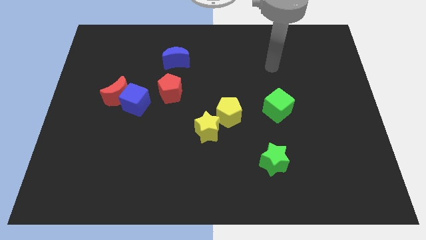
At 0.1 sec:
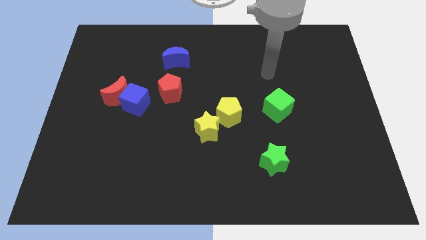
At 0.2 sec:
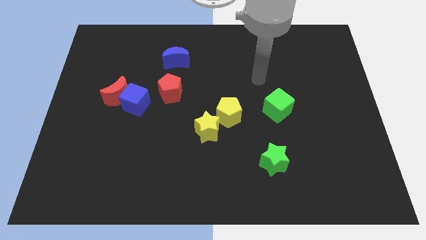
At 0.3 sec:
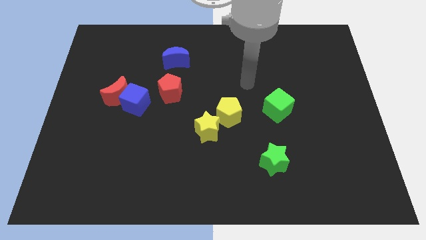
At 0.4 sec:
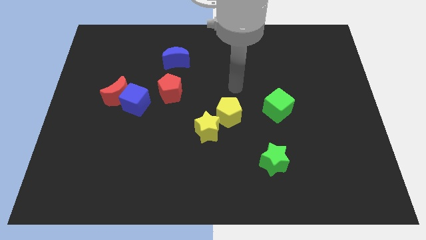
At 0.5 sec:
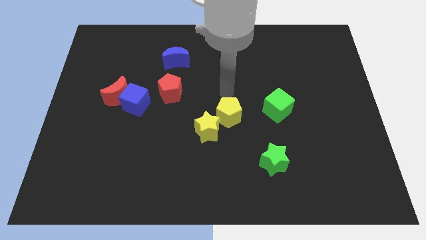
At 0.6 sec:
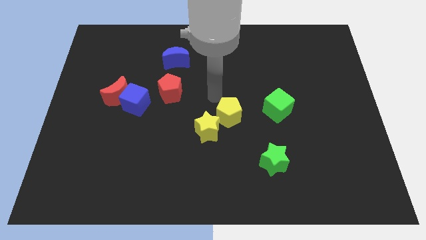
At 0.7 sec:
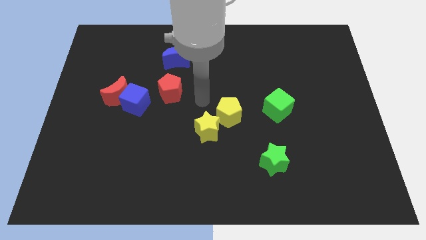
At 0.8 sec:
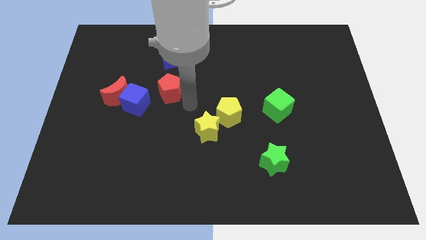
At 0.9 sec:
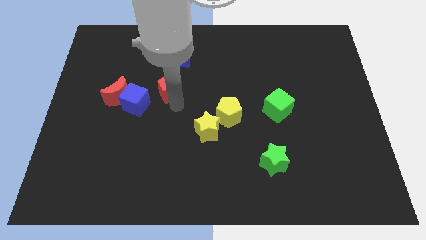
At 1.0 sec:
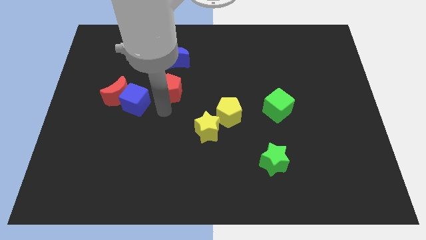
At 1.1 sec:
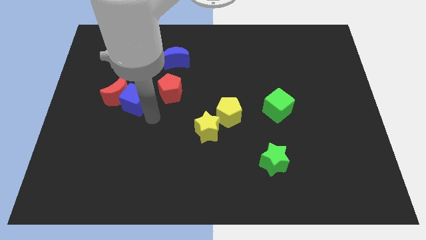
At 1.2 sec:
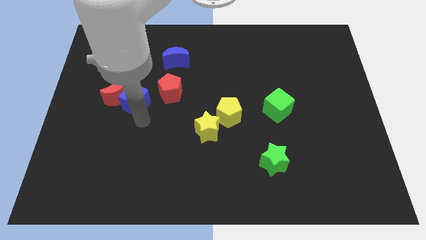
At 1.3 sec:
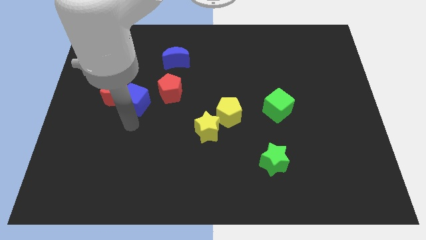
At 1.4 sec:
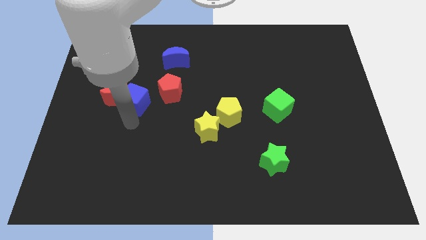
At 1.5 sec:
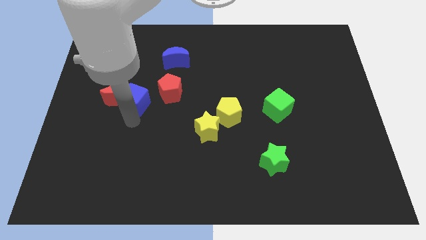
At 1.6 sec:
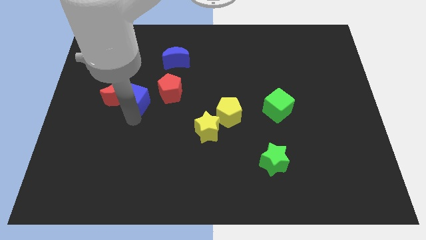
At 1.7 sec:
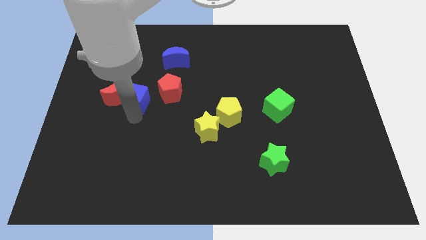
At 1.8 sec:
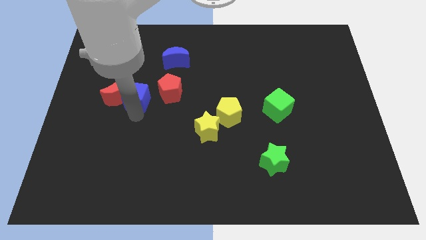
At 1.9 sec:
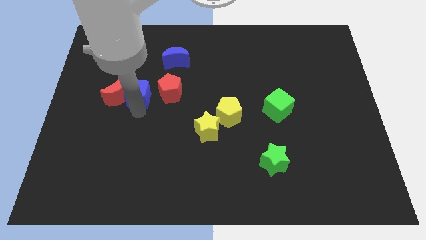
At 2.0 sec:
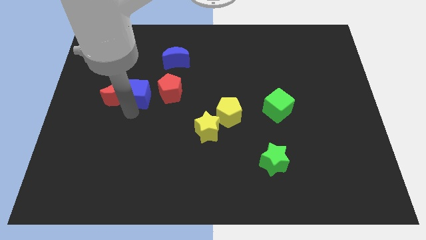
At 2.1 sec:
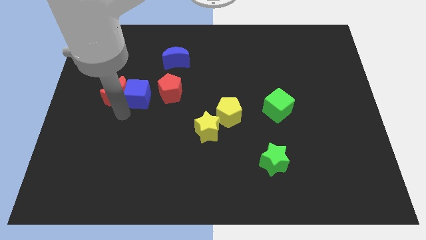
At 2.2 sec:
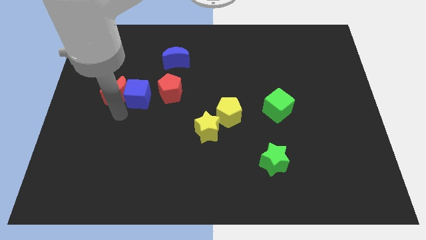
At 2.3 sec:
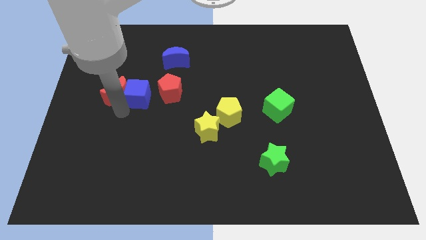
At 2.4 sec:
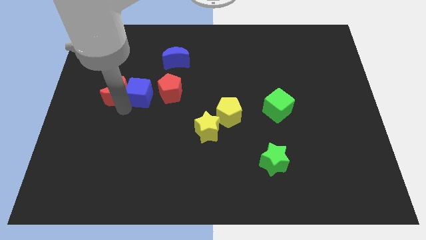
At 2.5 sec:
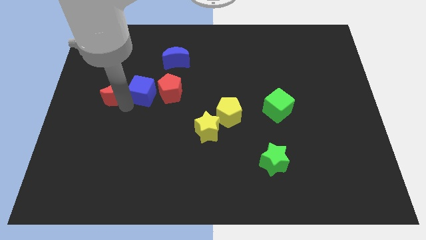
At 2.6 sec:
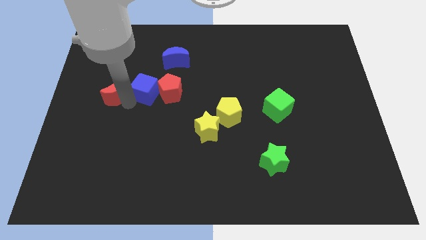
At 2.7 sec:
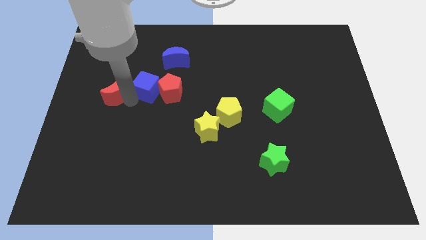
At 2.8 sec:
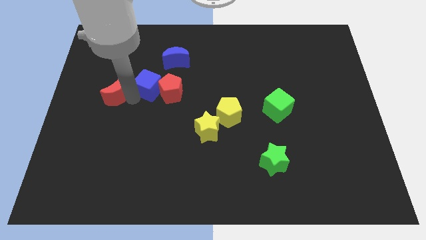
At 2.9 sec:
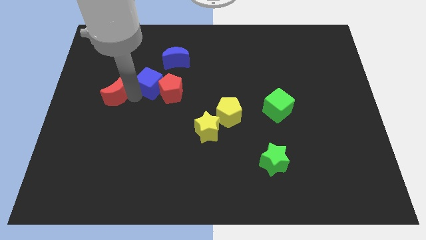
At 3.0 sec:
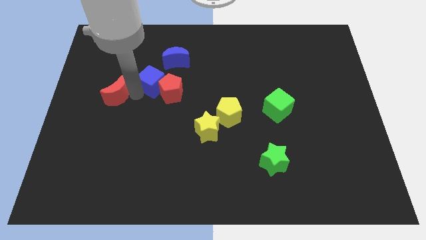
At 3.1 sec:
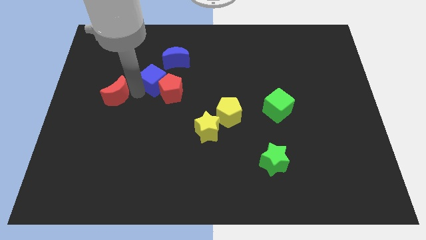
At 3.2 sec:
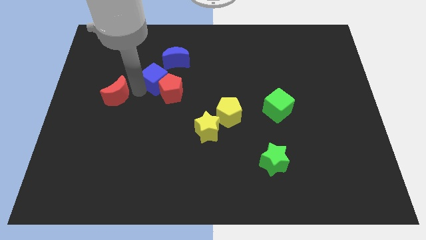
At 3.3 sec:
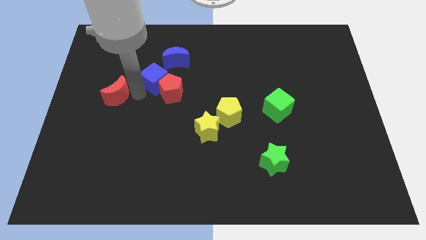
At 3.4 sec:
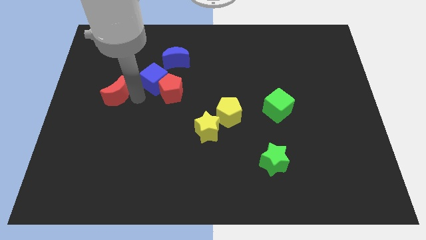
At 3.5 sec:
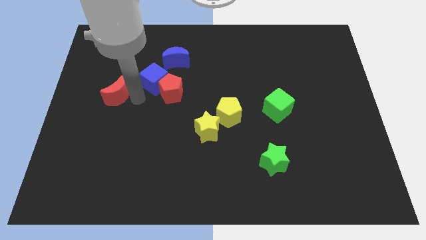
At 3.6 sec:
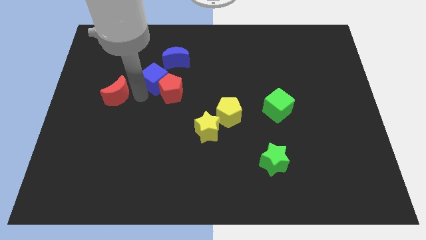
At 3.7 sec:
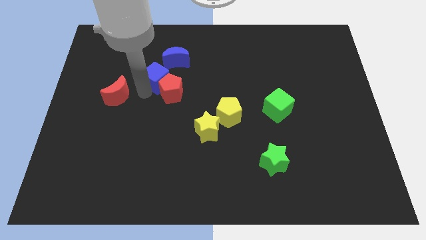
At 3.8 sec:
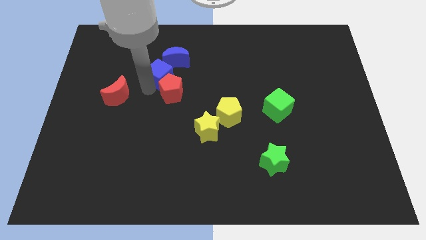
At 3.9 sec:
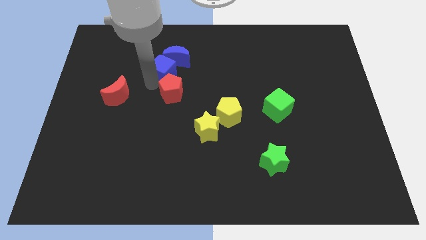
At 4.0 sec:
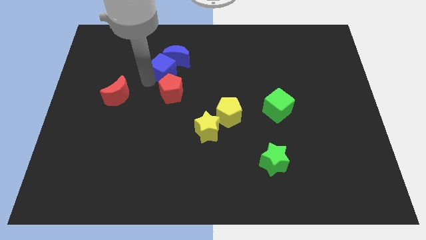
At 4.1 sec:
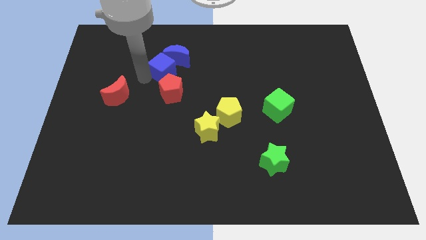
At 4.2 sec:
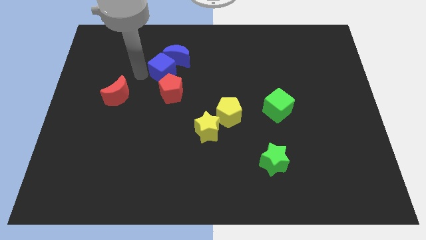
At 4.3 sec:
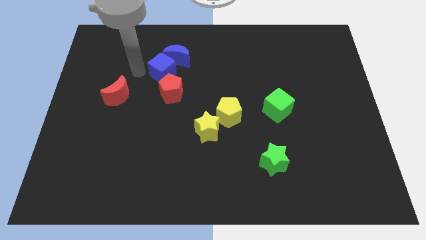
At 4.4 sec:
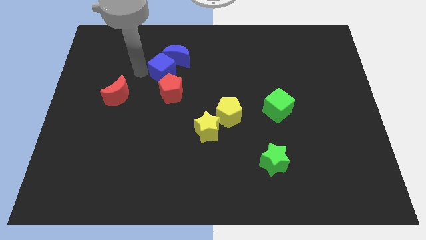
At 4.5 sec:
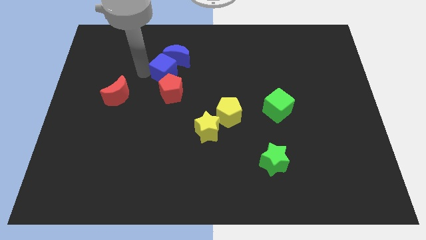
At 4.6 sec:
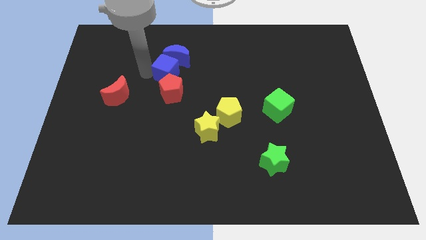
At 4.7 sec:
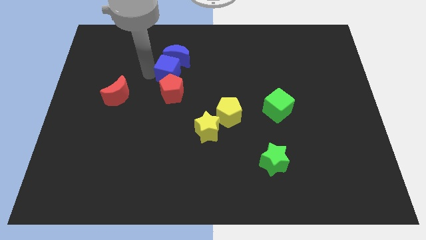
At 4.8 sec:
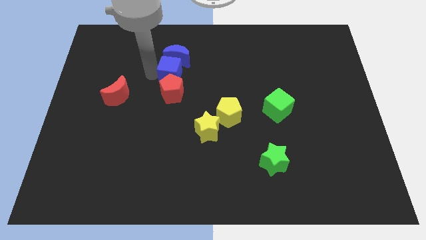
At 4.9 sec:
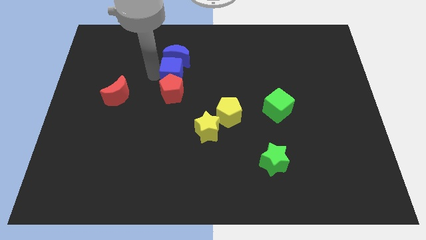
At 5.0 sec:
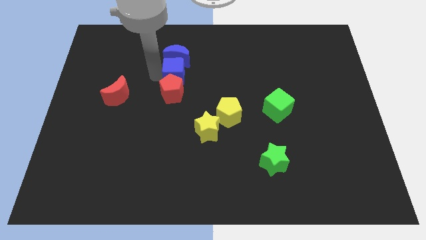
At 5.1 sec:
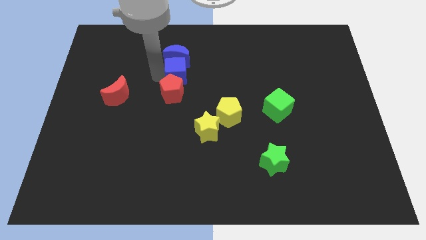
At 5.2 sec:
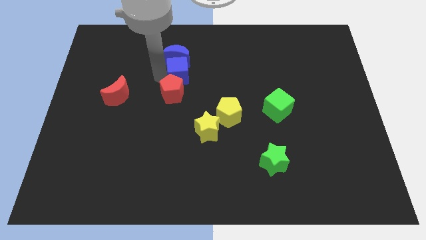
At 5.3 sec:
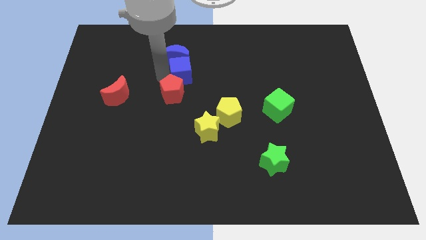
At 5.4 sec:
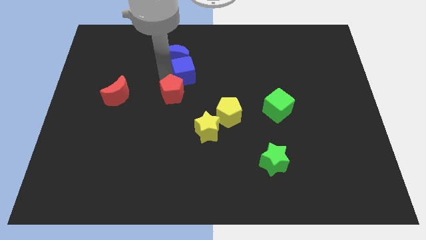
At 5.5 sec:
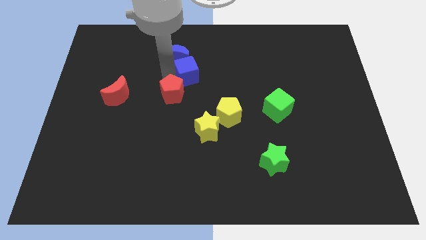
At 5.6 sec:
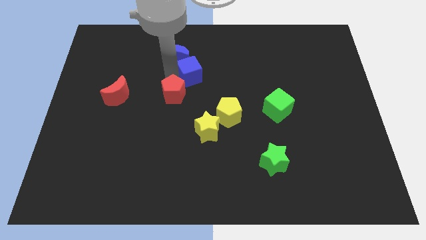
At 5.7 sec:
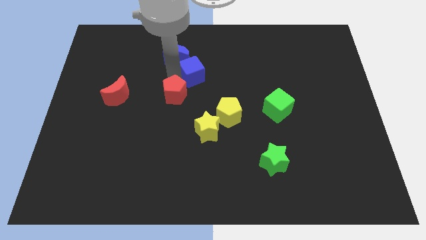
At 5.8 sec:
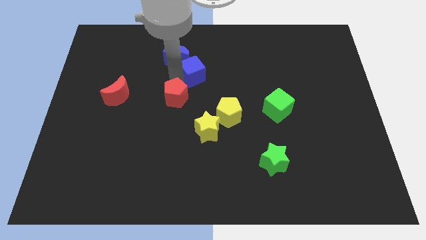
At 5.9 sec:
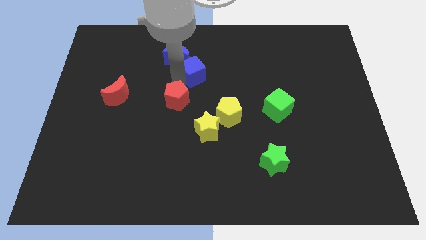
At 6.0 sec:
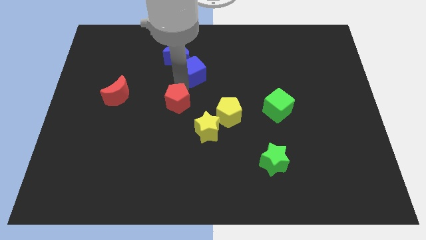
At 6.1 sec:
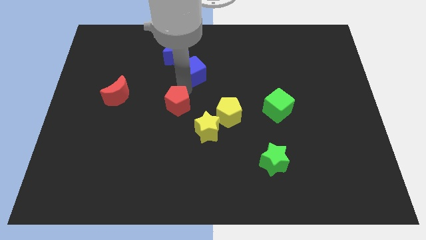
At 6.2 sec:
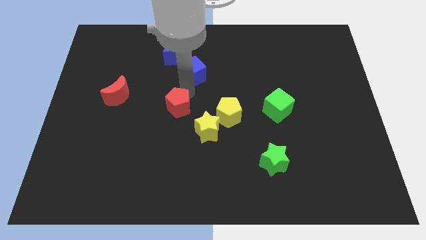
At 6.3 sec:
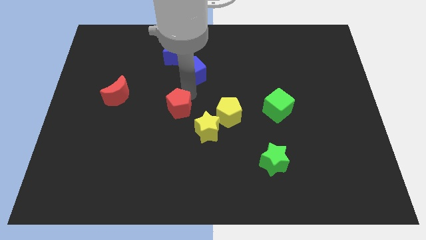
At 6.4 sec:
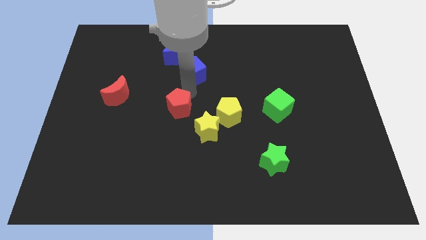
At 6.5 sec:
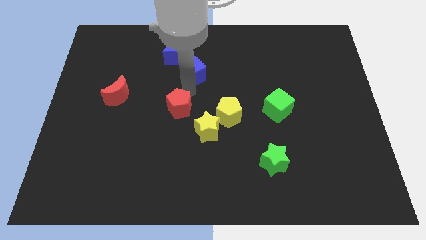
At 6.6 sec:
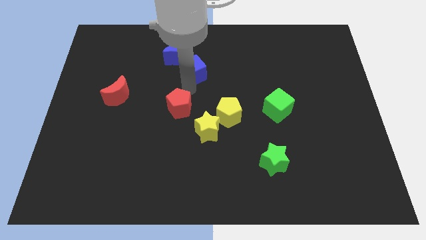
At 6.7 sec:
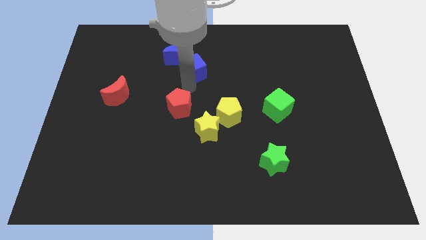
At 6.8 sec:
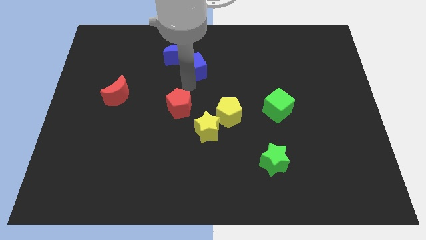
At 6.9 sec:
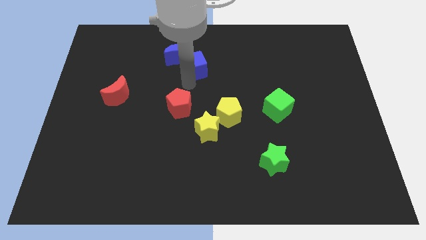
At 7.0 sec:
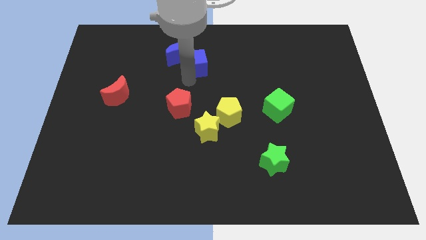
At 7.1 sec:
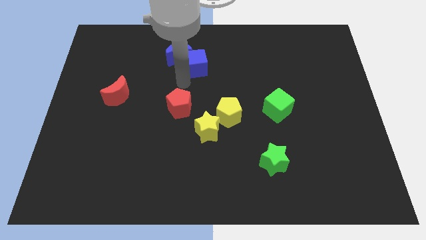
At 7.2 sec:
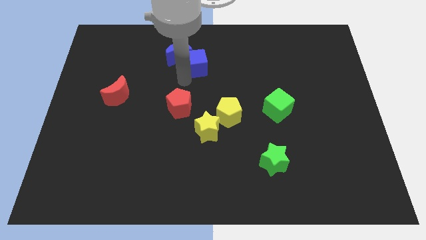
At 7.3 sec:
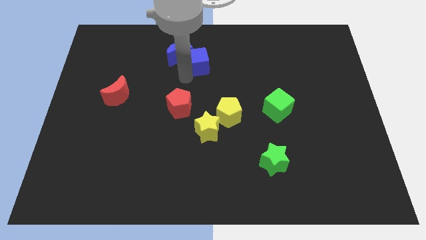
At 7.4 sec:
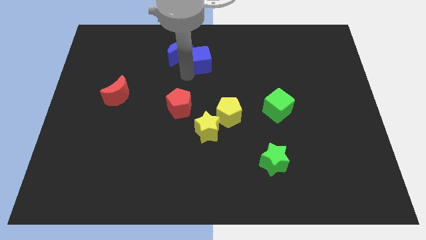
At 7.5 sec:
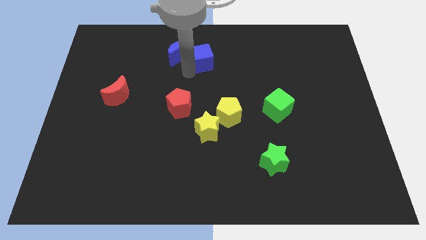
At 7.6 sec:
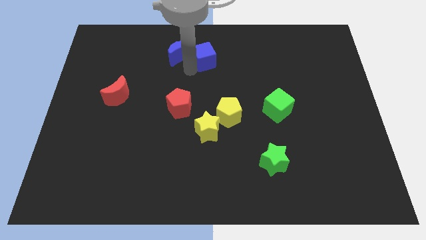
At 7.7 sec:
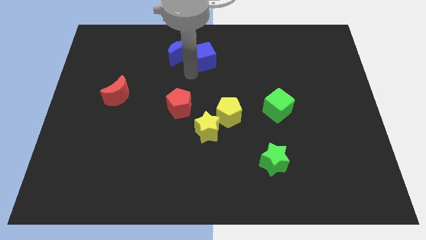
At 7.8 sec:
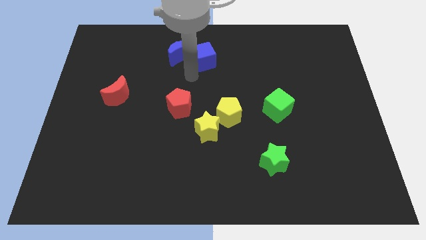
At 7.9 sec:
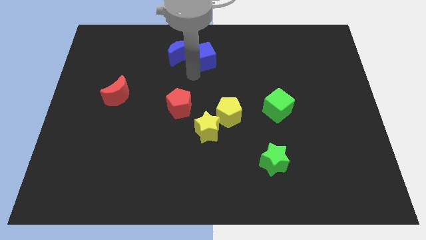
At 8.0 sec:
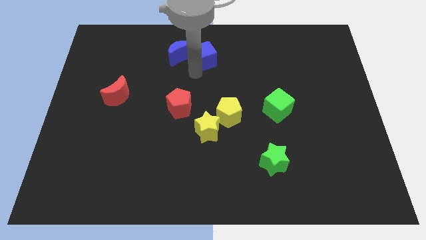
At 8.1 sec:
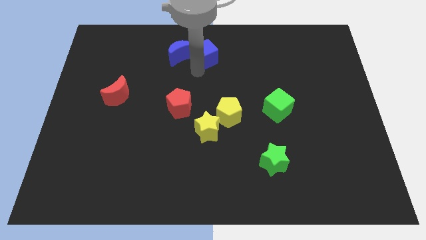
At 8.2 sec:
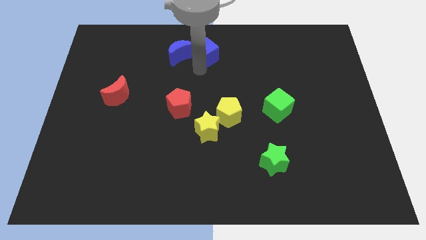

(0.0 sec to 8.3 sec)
slide the blue cube to the top side
